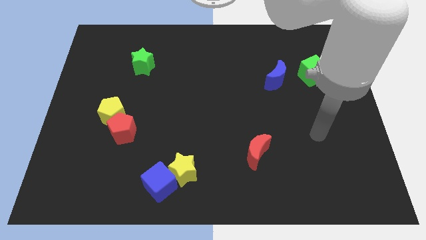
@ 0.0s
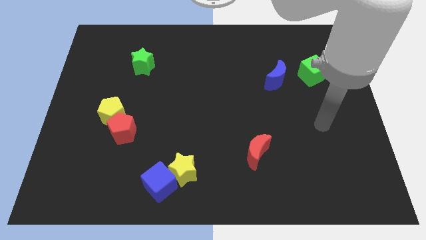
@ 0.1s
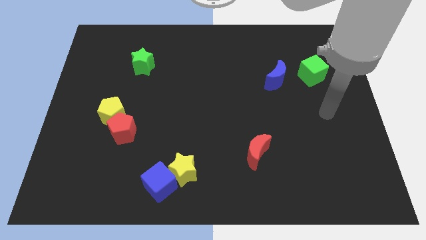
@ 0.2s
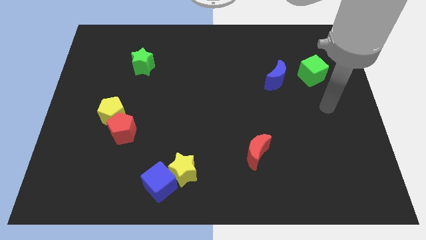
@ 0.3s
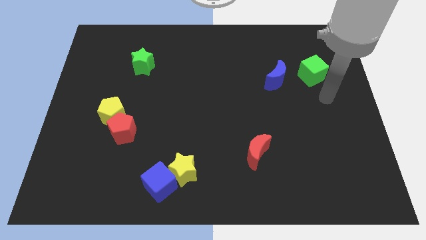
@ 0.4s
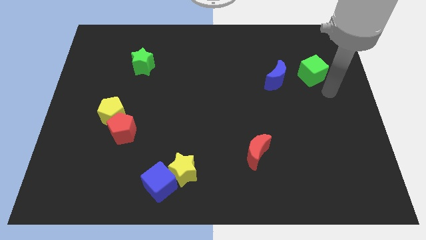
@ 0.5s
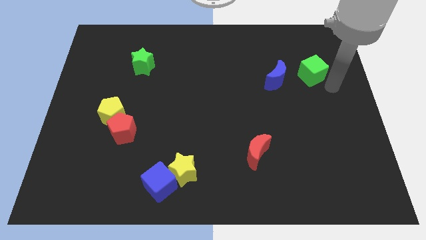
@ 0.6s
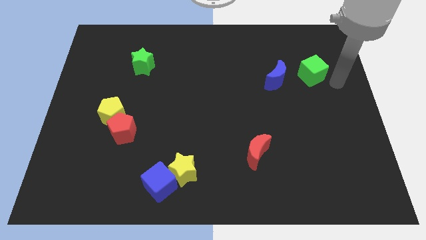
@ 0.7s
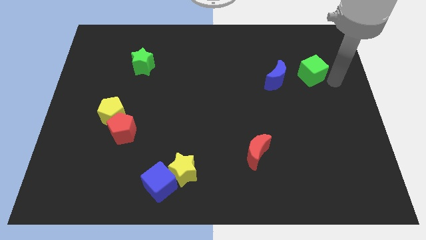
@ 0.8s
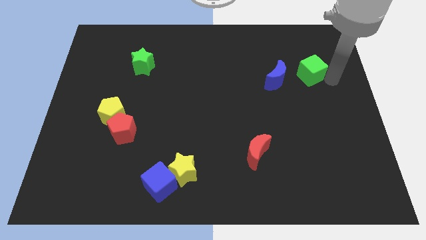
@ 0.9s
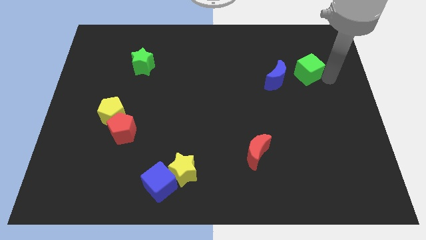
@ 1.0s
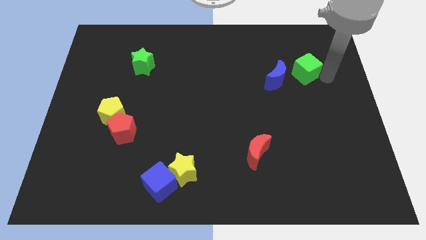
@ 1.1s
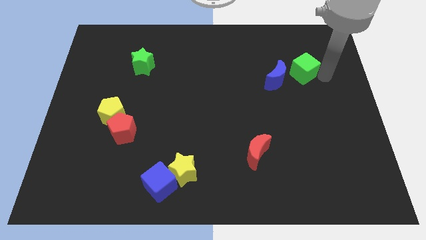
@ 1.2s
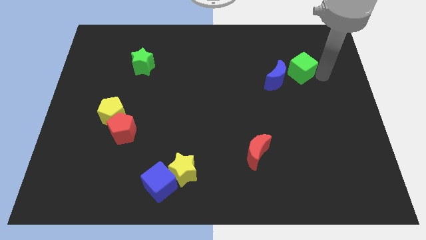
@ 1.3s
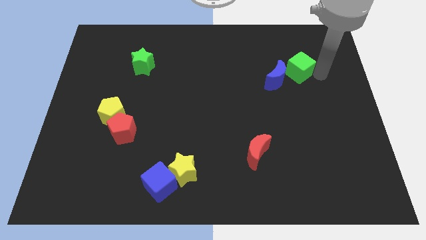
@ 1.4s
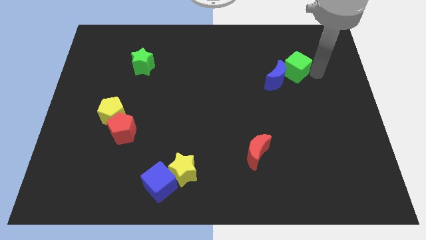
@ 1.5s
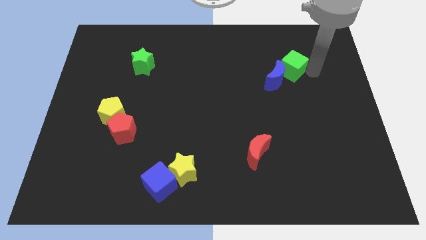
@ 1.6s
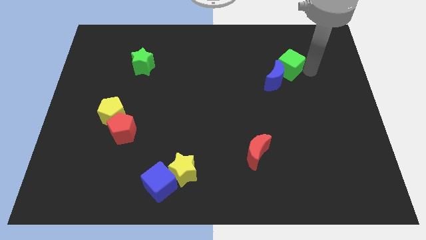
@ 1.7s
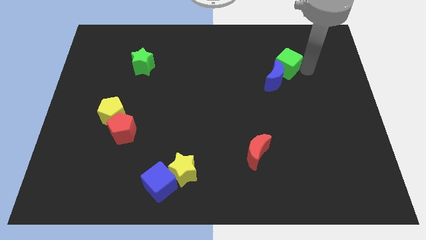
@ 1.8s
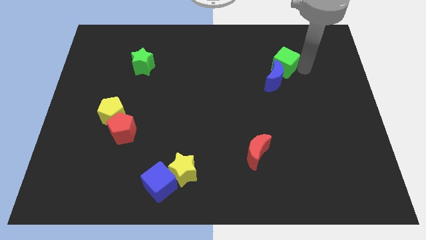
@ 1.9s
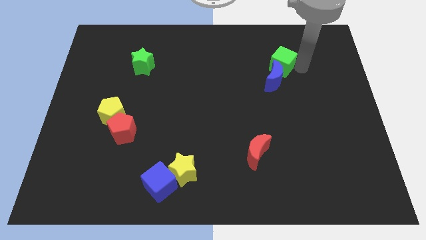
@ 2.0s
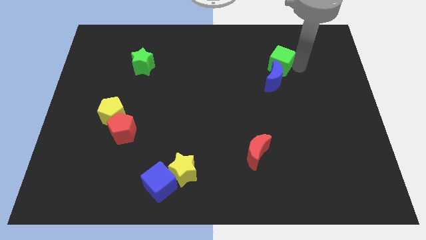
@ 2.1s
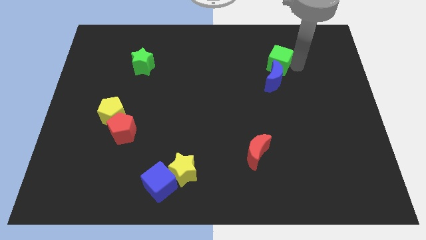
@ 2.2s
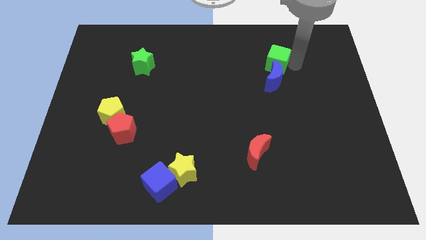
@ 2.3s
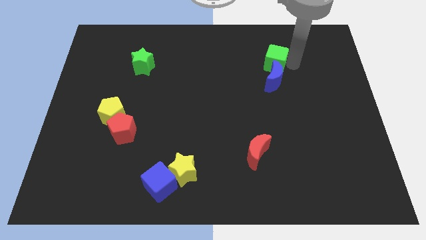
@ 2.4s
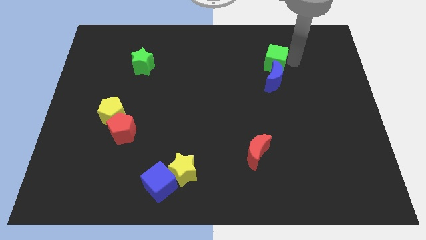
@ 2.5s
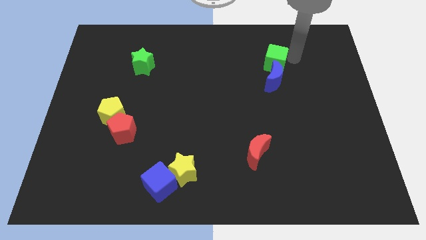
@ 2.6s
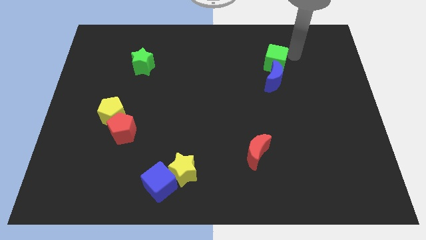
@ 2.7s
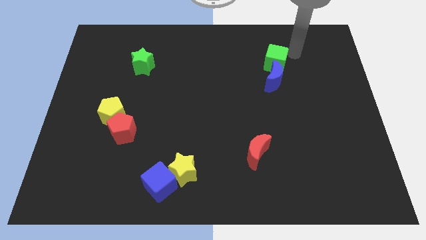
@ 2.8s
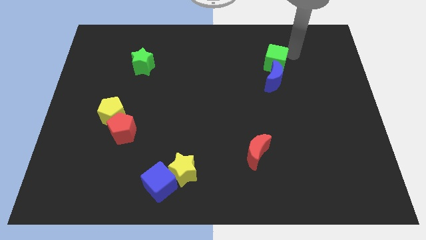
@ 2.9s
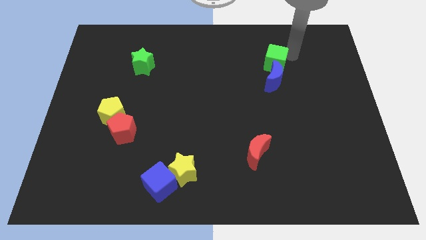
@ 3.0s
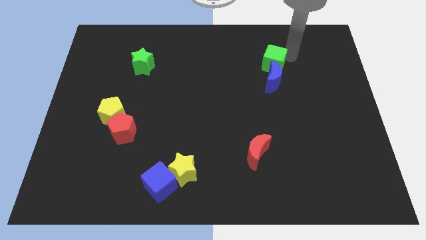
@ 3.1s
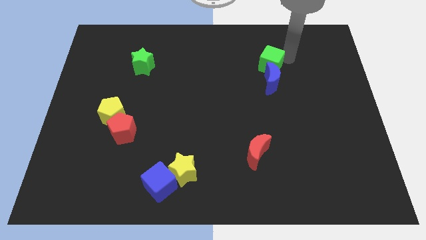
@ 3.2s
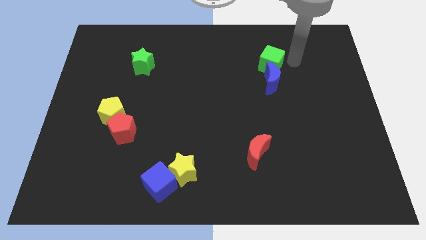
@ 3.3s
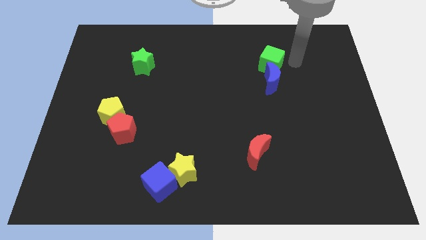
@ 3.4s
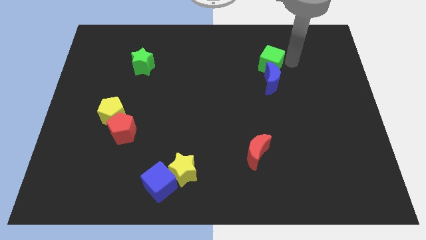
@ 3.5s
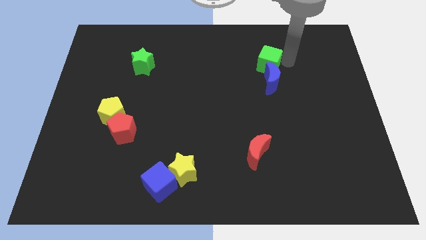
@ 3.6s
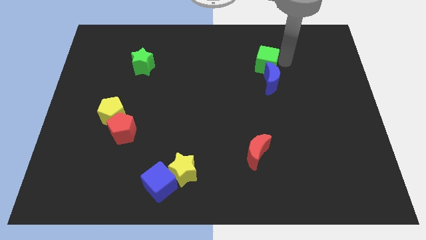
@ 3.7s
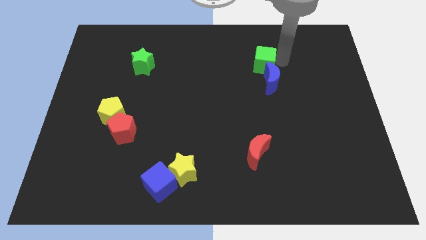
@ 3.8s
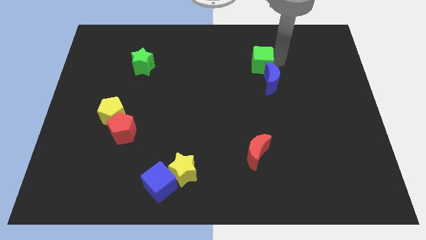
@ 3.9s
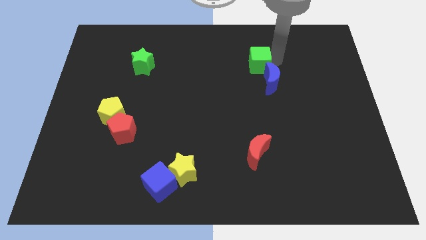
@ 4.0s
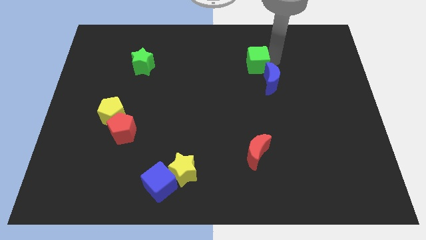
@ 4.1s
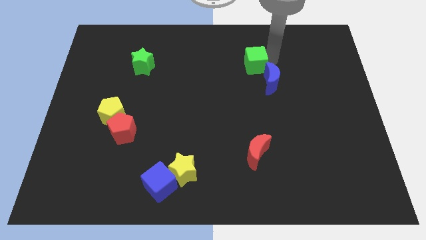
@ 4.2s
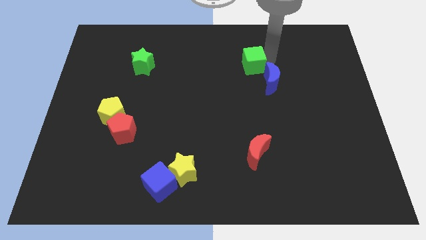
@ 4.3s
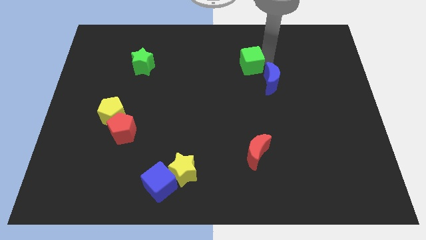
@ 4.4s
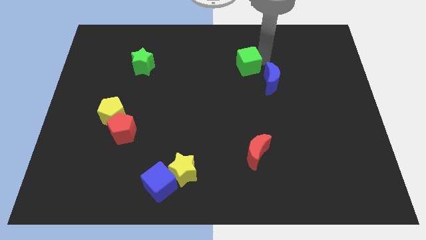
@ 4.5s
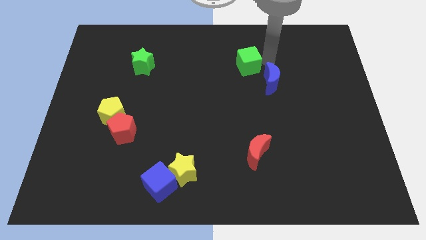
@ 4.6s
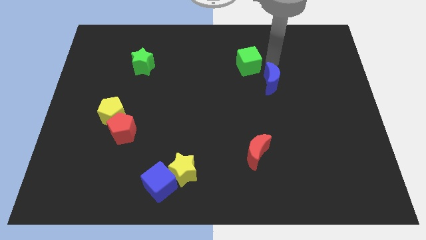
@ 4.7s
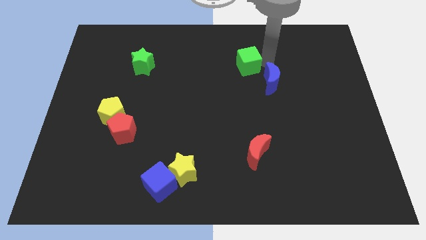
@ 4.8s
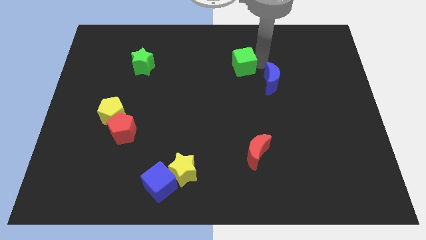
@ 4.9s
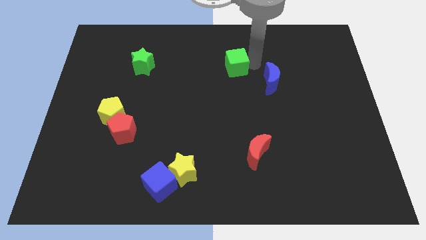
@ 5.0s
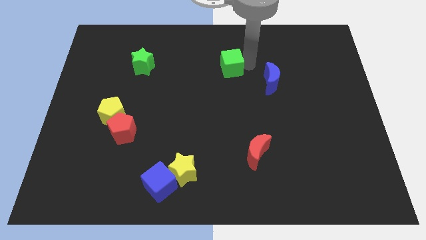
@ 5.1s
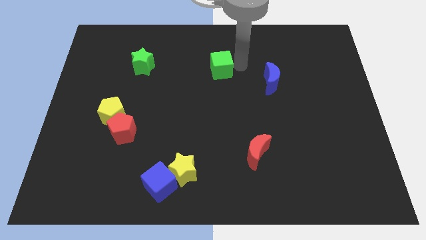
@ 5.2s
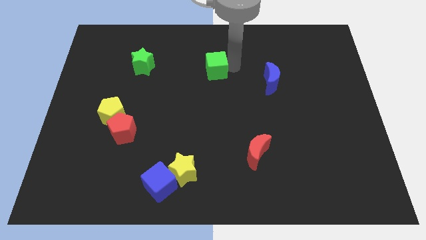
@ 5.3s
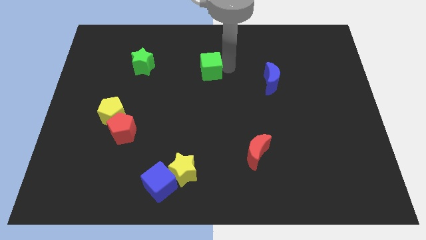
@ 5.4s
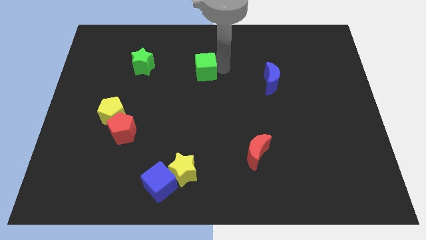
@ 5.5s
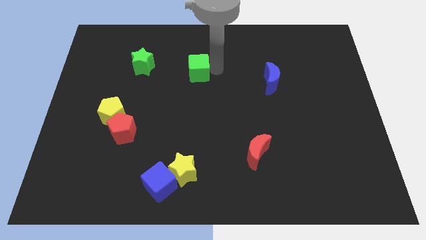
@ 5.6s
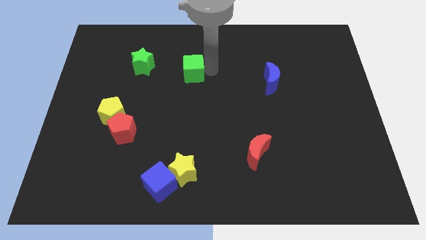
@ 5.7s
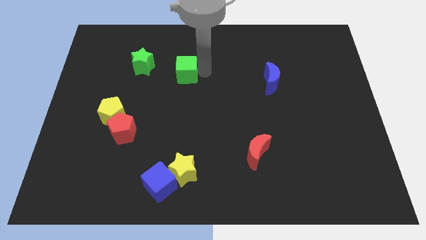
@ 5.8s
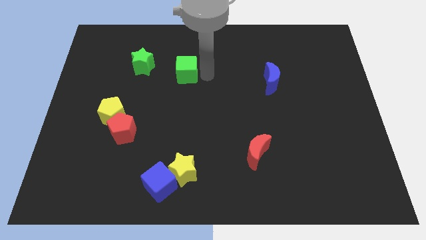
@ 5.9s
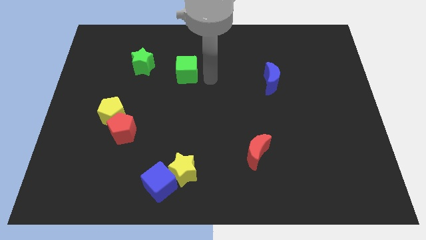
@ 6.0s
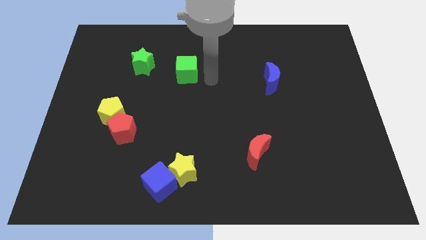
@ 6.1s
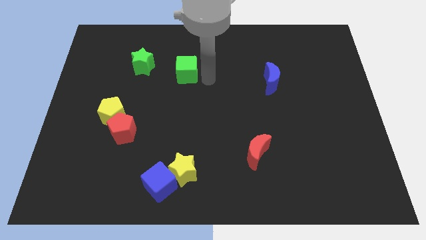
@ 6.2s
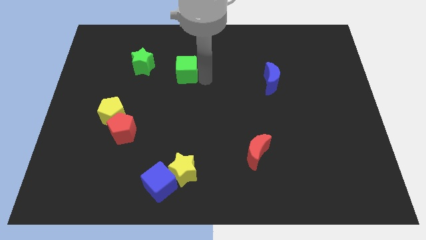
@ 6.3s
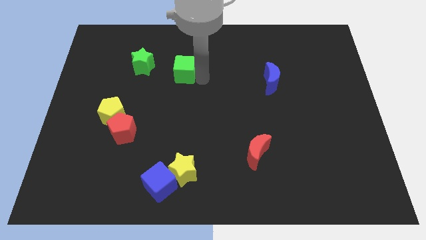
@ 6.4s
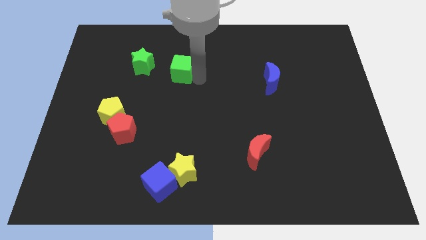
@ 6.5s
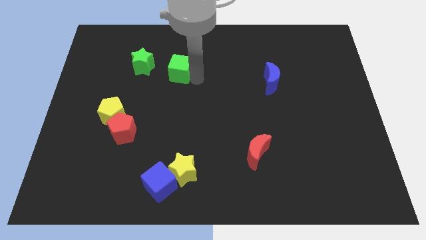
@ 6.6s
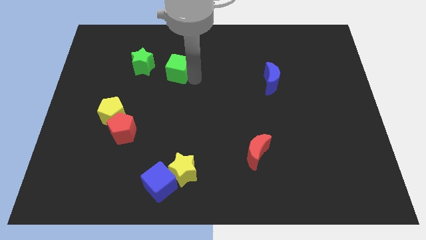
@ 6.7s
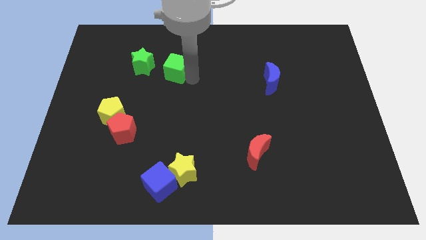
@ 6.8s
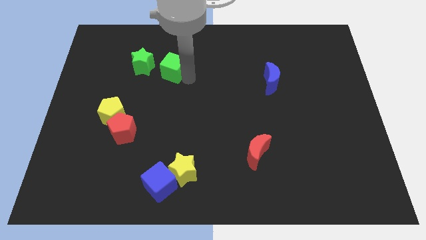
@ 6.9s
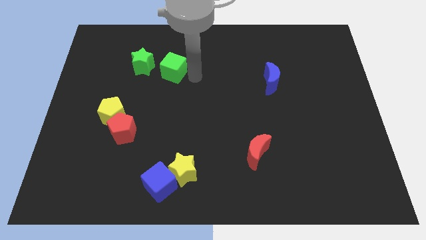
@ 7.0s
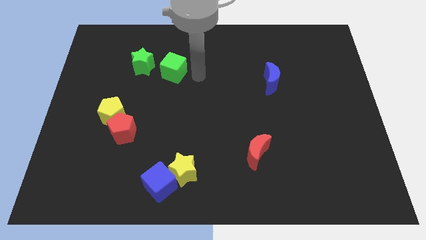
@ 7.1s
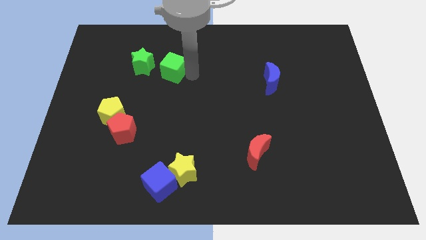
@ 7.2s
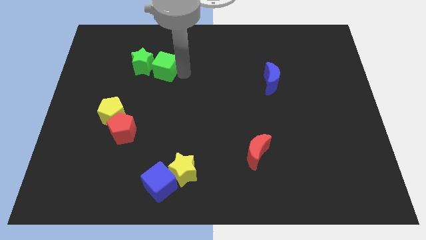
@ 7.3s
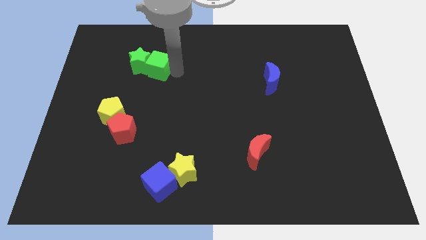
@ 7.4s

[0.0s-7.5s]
push the green cube close to the green star
